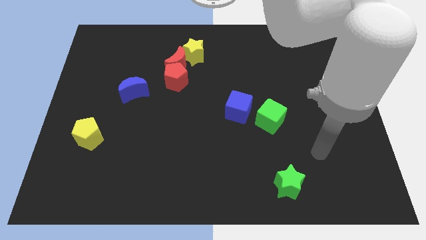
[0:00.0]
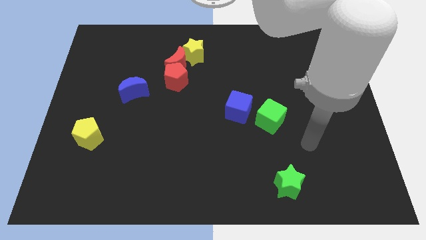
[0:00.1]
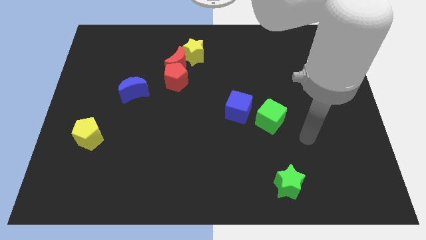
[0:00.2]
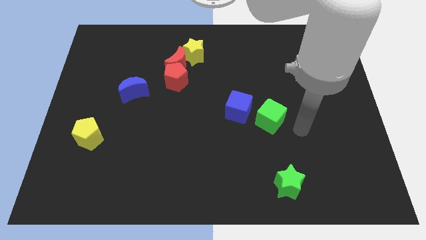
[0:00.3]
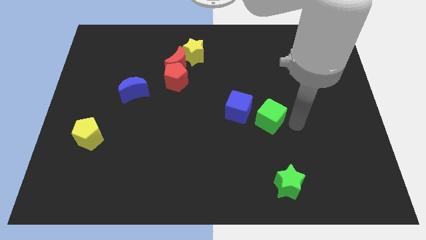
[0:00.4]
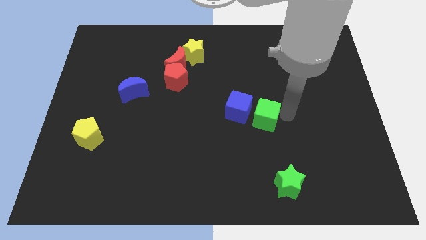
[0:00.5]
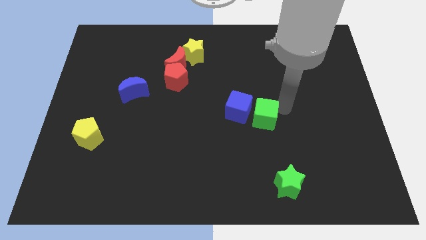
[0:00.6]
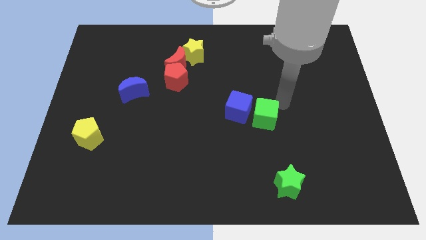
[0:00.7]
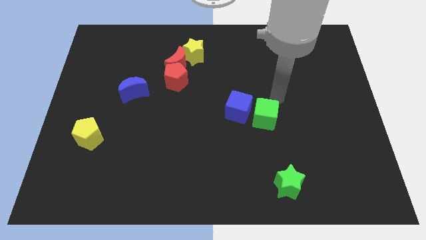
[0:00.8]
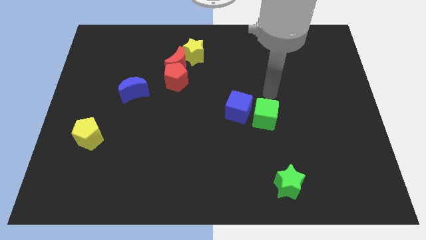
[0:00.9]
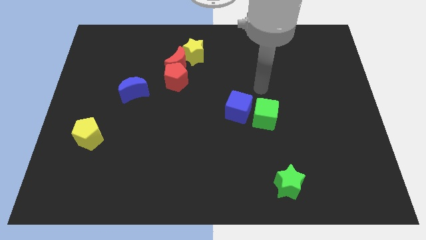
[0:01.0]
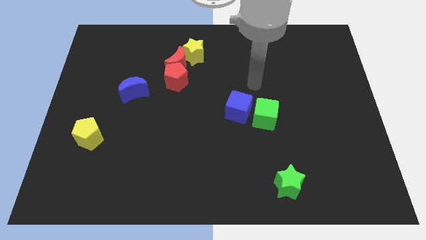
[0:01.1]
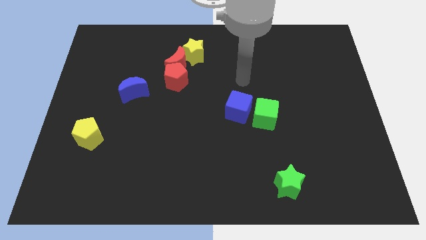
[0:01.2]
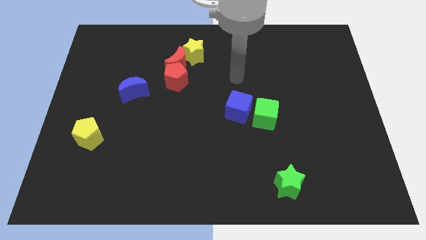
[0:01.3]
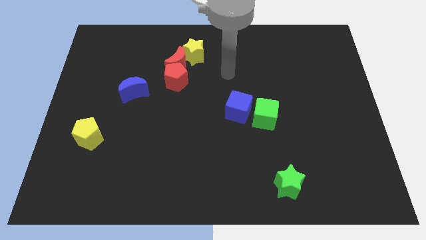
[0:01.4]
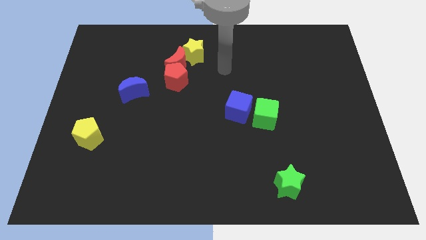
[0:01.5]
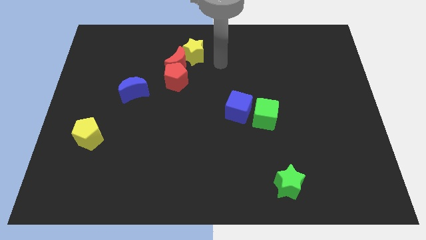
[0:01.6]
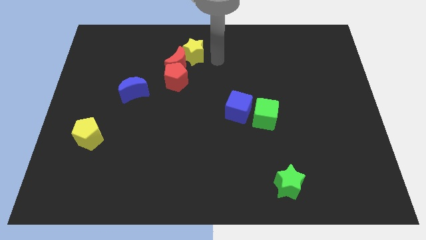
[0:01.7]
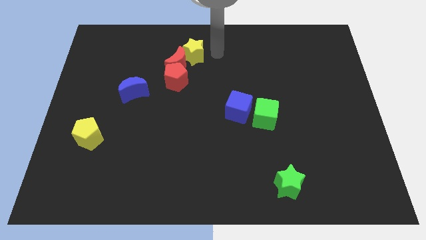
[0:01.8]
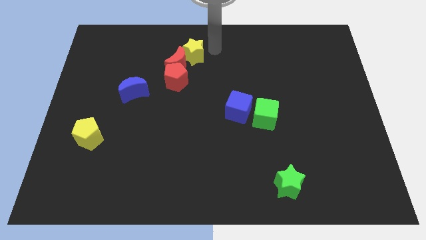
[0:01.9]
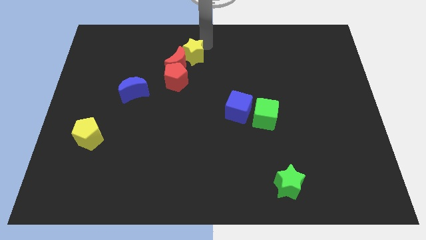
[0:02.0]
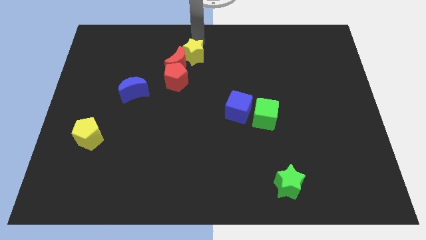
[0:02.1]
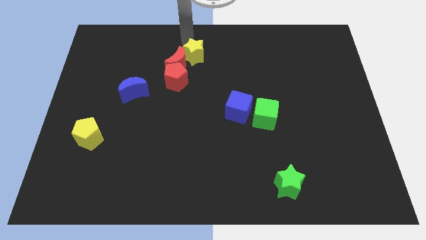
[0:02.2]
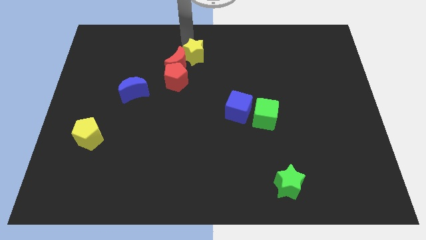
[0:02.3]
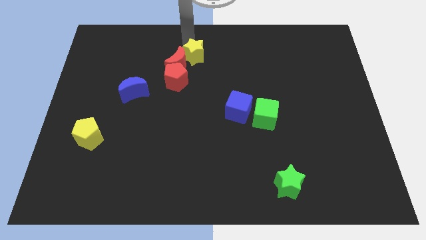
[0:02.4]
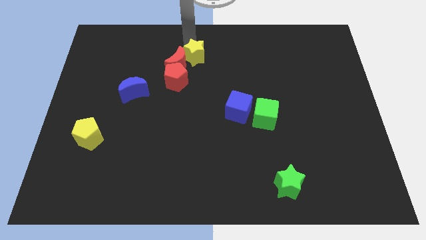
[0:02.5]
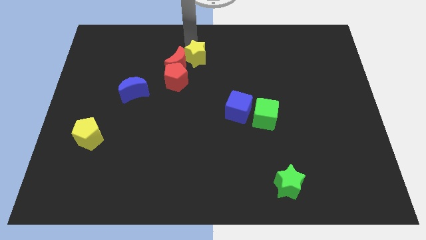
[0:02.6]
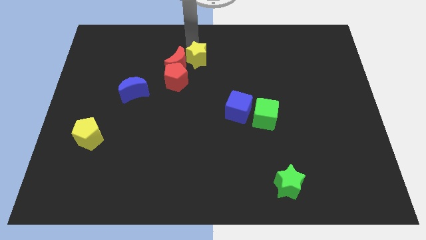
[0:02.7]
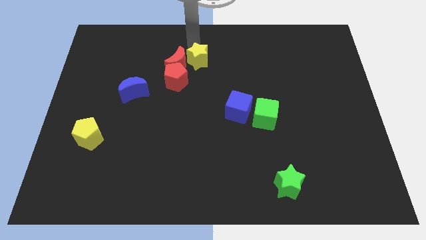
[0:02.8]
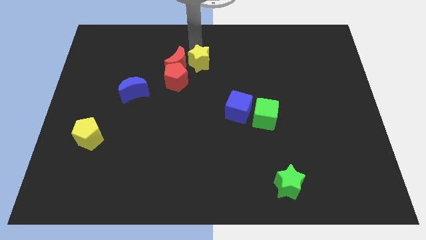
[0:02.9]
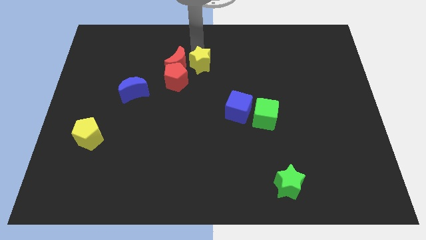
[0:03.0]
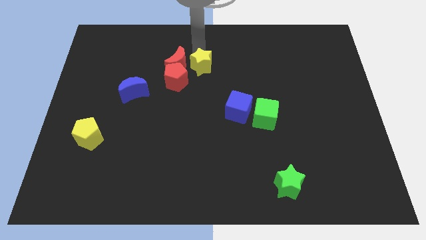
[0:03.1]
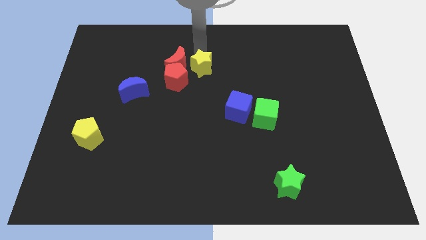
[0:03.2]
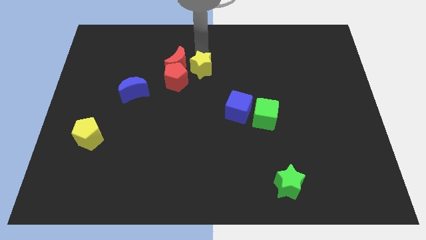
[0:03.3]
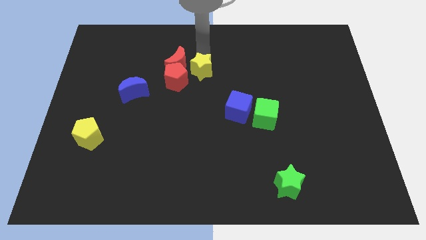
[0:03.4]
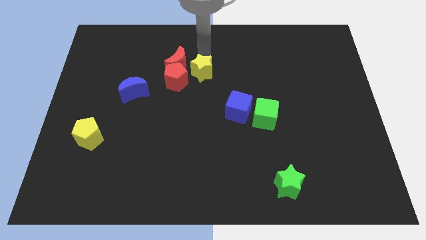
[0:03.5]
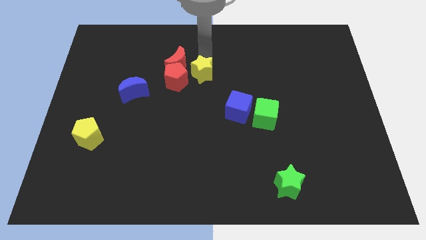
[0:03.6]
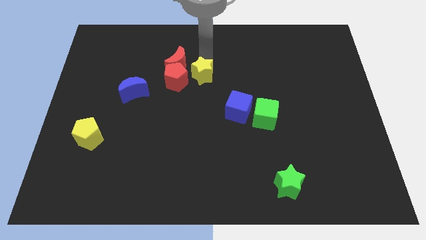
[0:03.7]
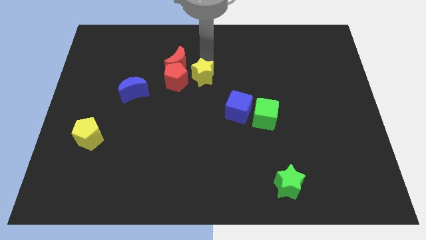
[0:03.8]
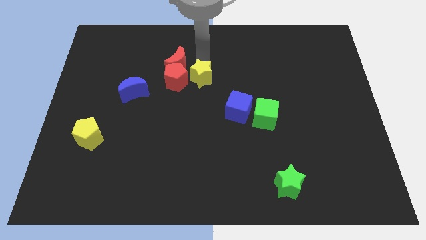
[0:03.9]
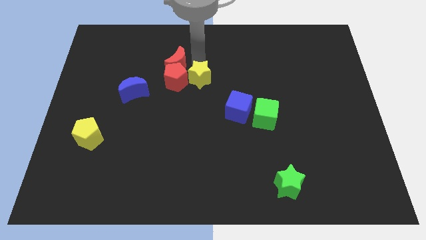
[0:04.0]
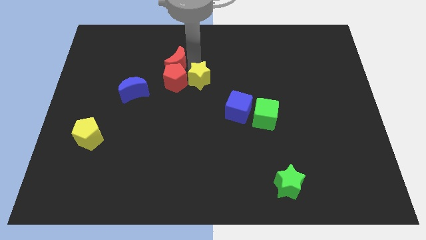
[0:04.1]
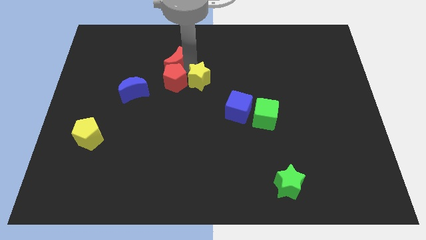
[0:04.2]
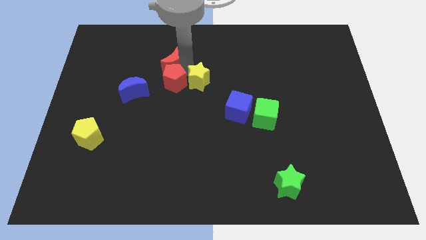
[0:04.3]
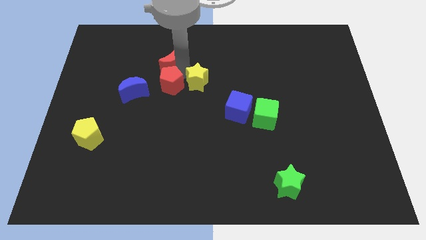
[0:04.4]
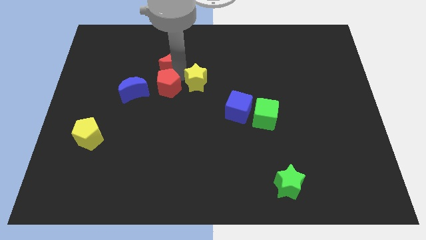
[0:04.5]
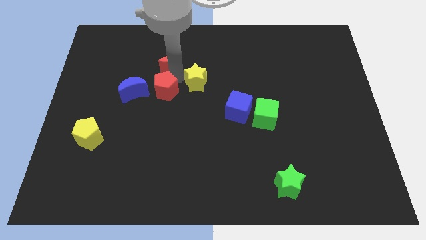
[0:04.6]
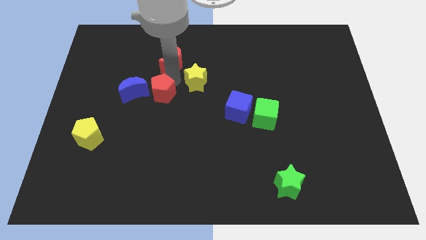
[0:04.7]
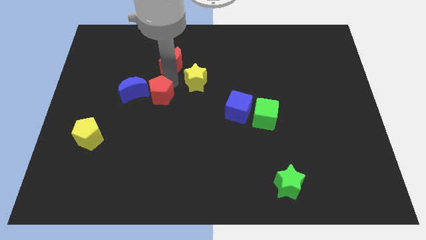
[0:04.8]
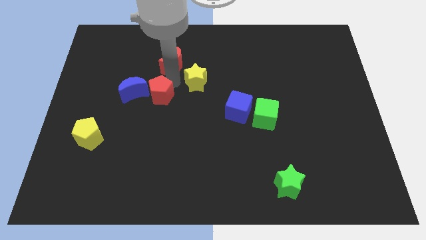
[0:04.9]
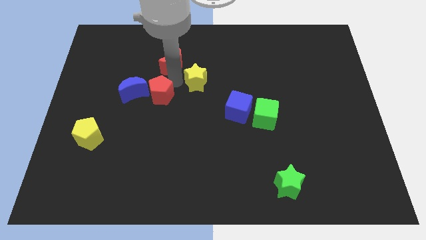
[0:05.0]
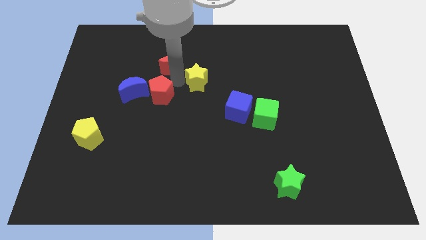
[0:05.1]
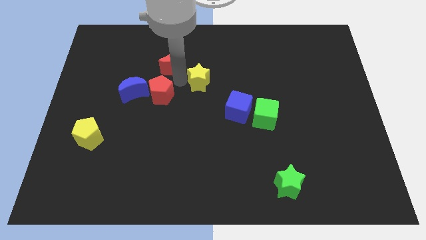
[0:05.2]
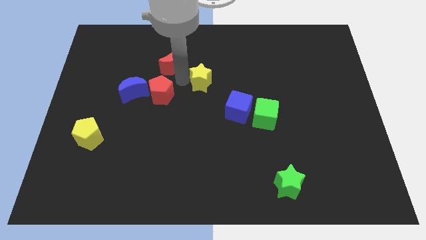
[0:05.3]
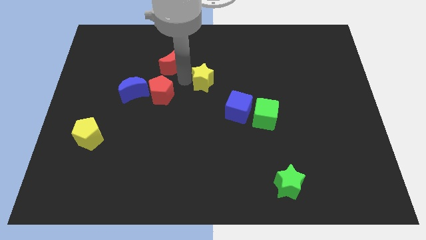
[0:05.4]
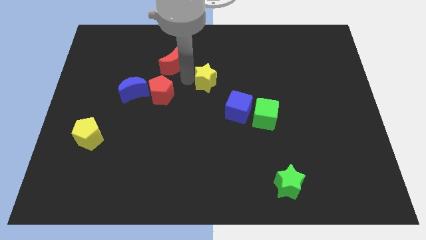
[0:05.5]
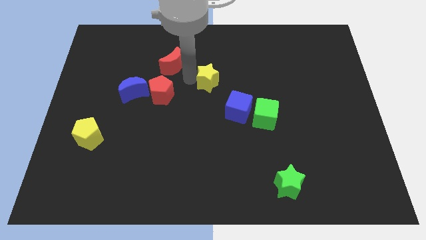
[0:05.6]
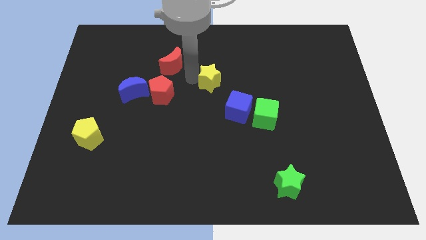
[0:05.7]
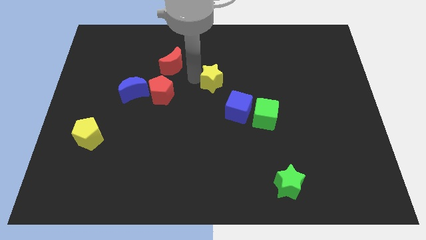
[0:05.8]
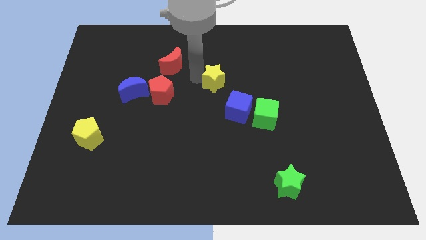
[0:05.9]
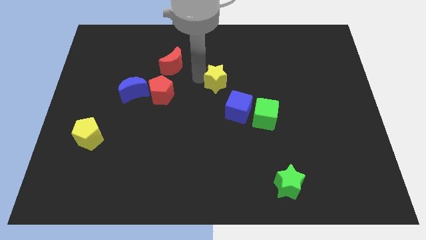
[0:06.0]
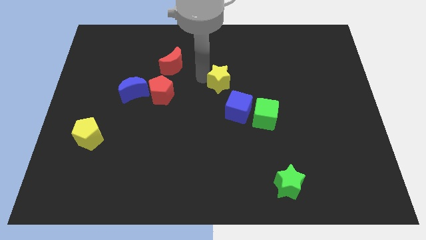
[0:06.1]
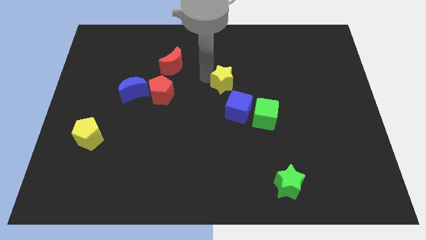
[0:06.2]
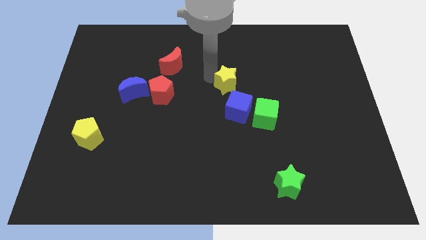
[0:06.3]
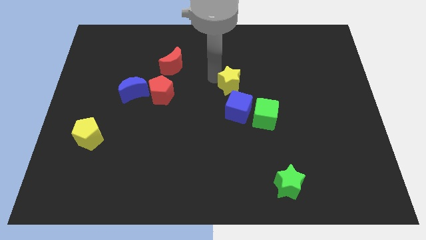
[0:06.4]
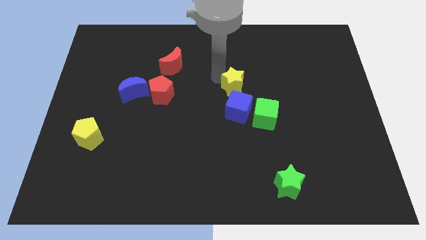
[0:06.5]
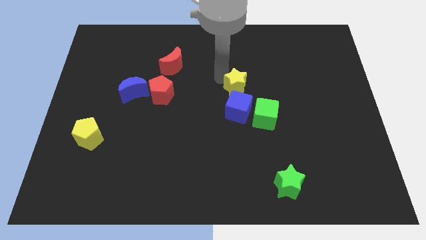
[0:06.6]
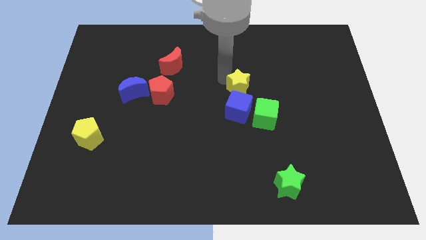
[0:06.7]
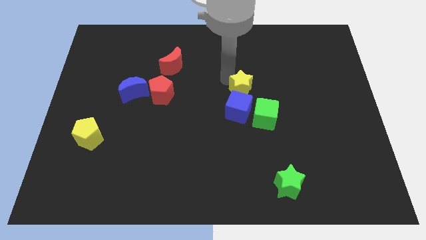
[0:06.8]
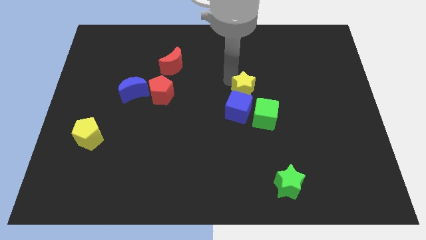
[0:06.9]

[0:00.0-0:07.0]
move the yellow star next to the blue cube
